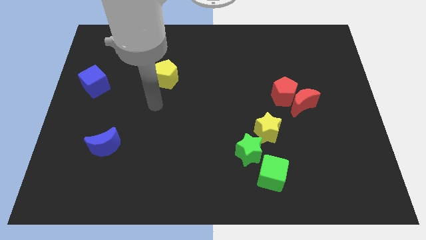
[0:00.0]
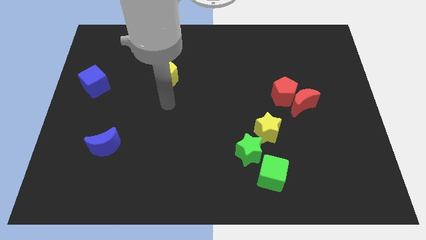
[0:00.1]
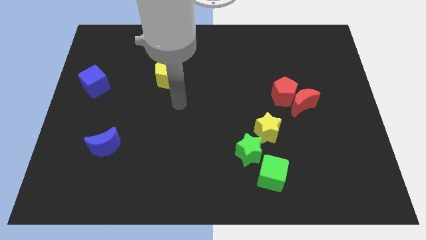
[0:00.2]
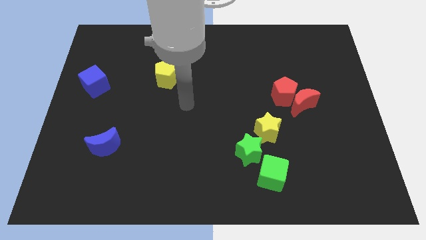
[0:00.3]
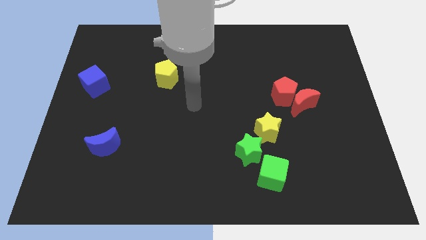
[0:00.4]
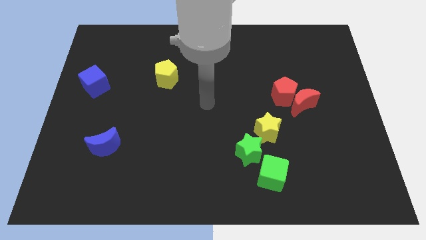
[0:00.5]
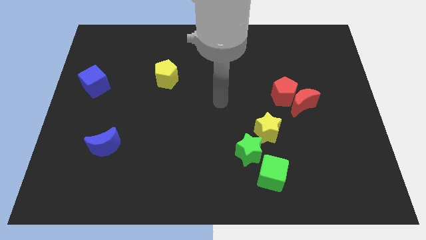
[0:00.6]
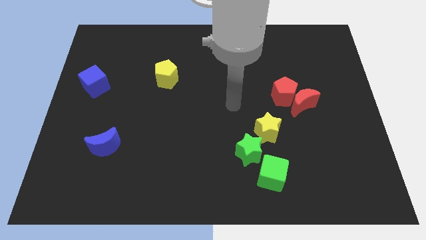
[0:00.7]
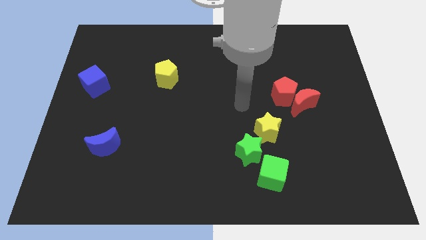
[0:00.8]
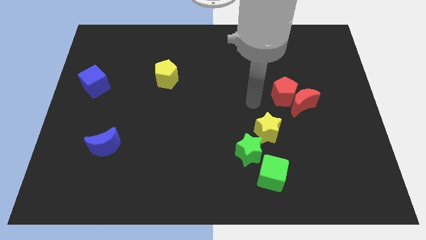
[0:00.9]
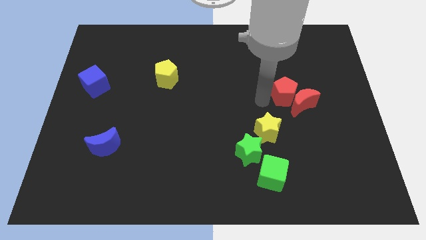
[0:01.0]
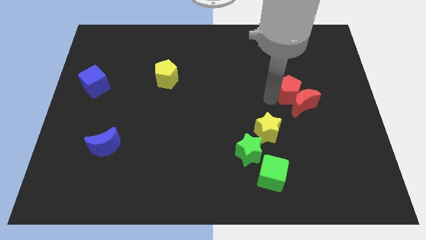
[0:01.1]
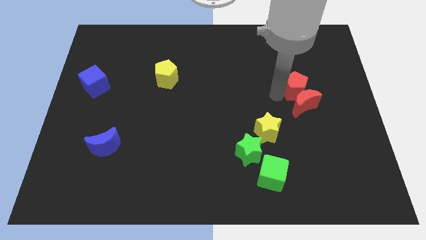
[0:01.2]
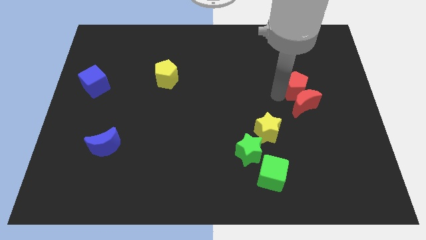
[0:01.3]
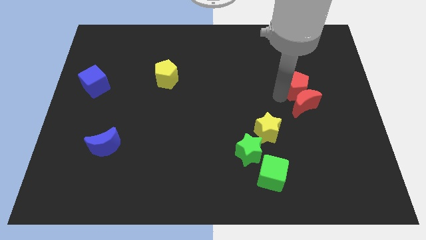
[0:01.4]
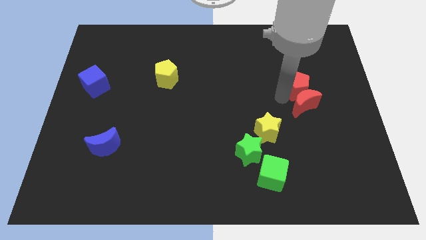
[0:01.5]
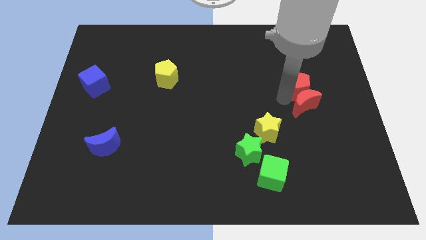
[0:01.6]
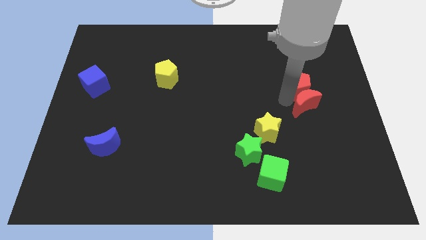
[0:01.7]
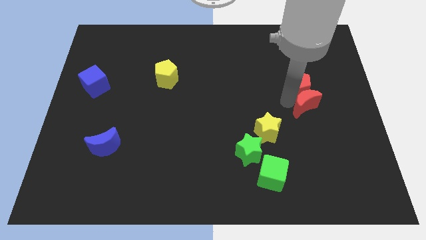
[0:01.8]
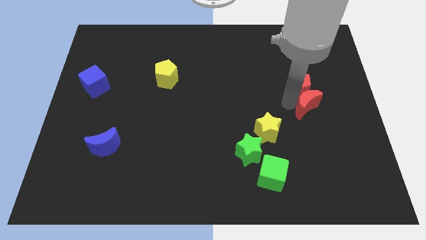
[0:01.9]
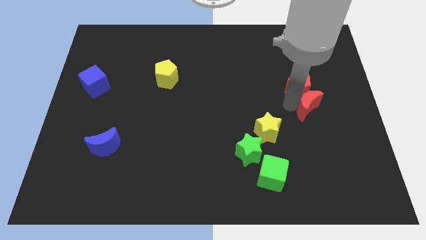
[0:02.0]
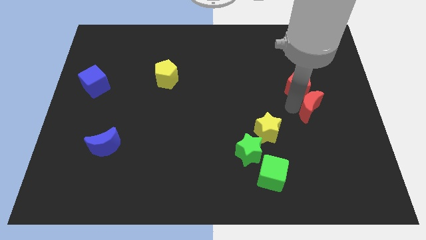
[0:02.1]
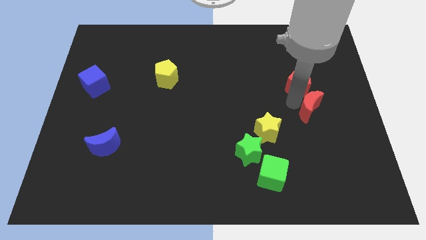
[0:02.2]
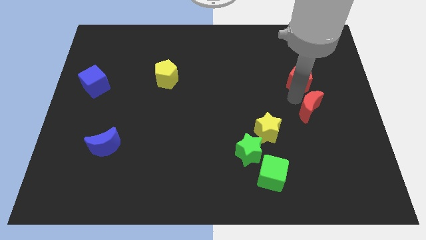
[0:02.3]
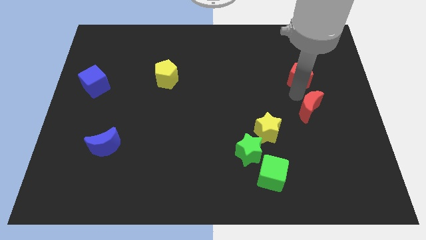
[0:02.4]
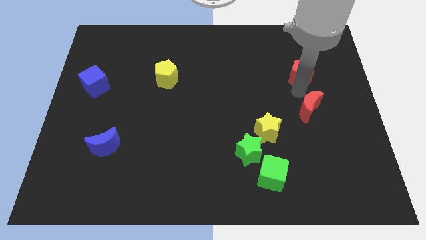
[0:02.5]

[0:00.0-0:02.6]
pull the red moon apart from the red pentagon

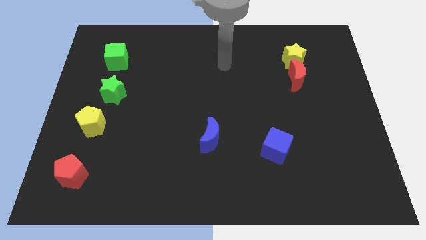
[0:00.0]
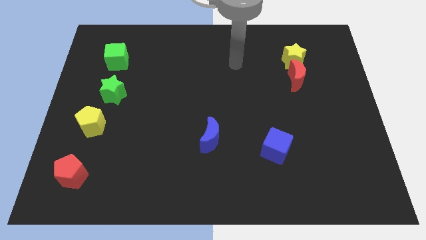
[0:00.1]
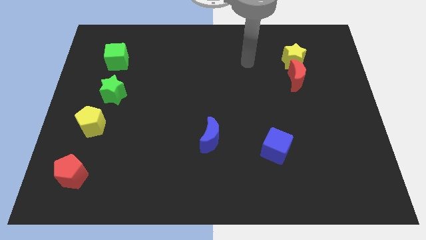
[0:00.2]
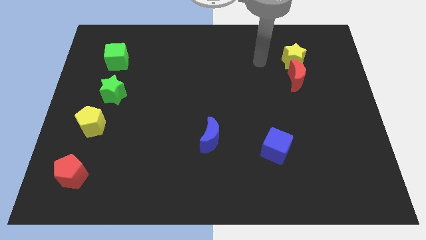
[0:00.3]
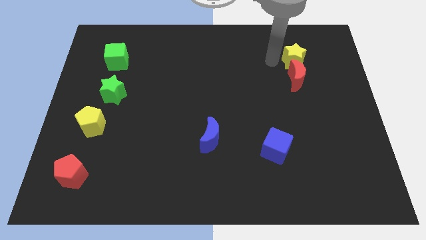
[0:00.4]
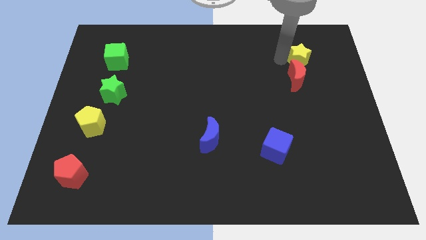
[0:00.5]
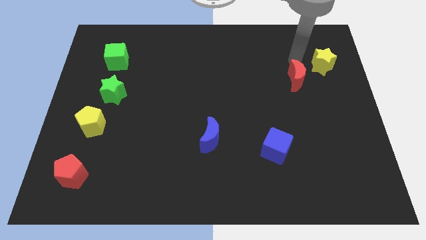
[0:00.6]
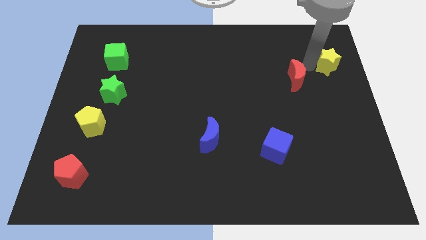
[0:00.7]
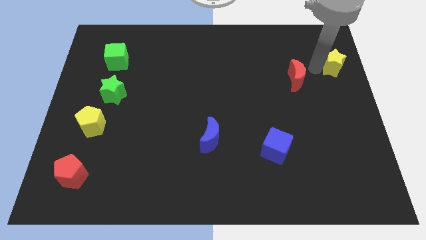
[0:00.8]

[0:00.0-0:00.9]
move the red moon away from the yellow star

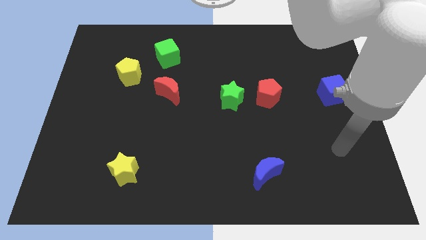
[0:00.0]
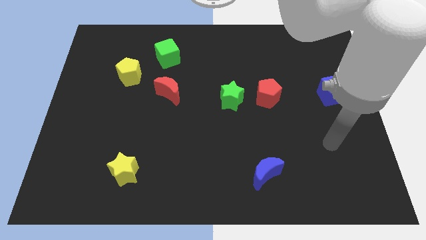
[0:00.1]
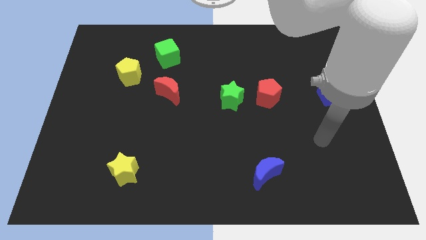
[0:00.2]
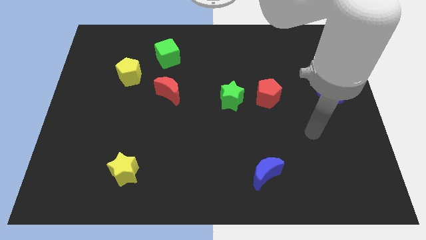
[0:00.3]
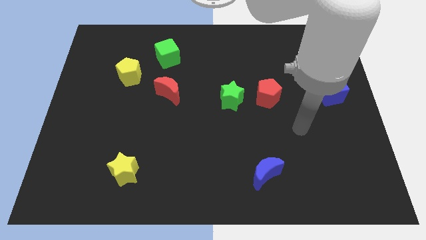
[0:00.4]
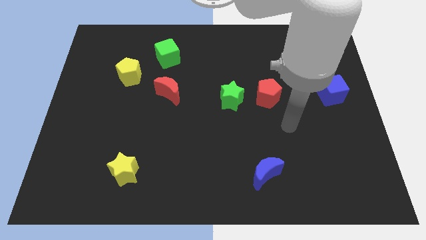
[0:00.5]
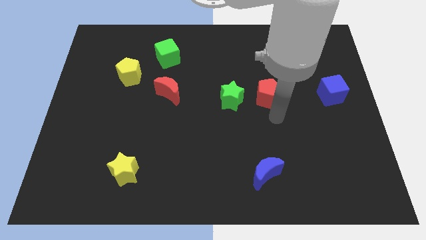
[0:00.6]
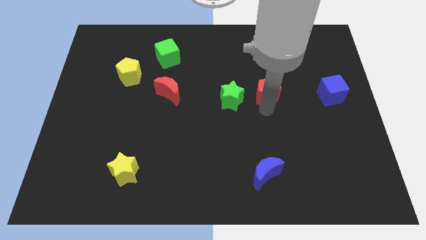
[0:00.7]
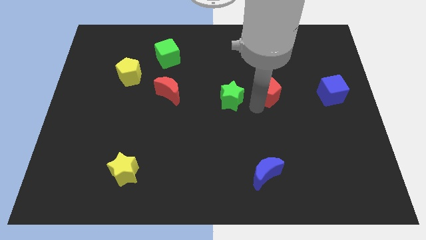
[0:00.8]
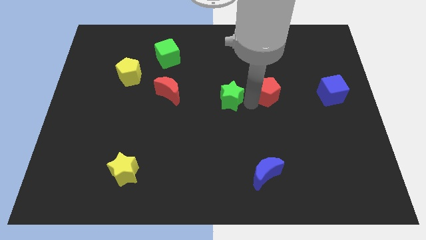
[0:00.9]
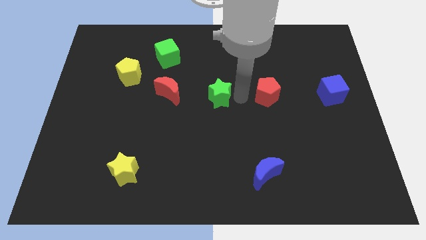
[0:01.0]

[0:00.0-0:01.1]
pull the red pentagon apart from the green star

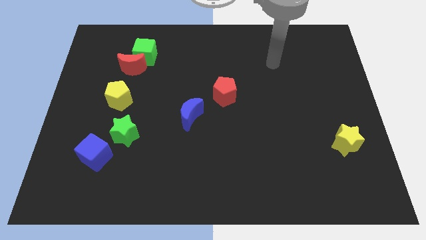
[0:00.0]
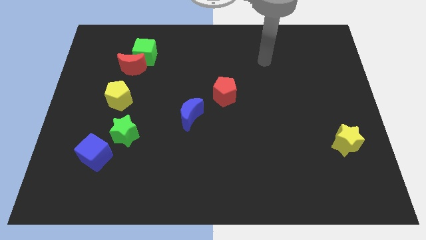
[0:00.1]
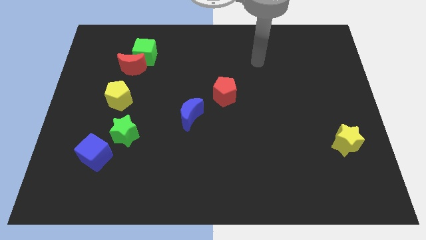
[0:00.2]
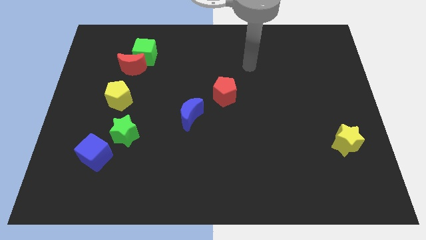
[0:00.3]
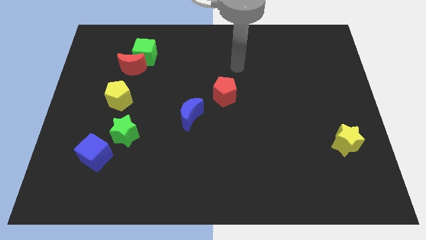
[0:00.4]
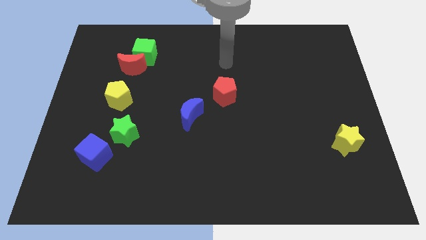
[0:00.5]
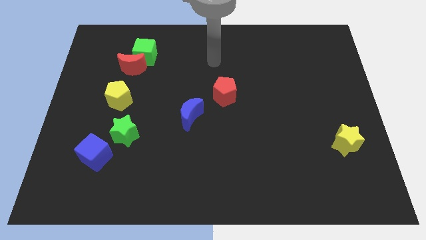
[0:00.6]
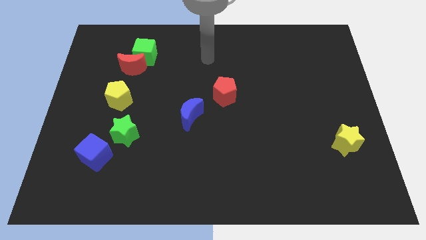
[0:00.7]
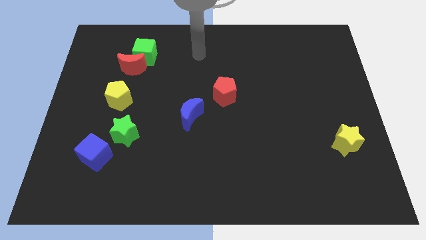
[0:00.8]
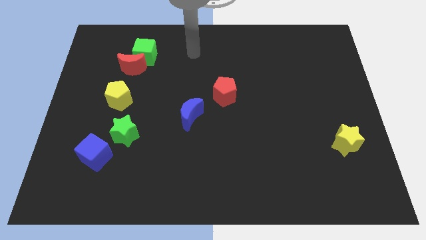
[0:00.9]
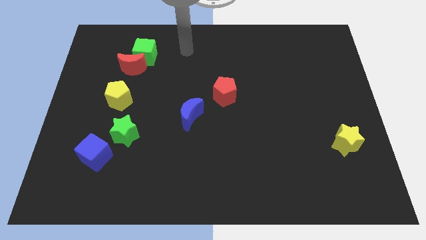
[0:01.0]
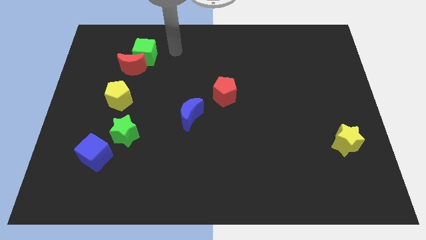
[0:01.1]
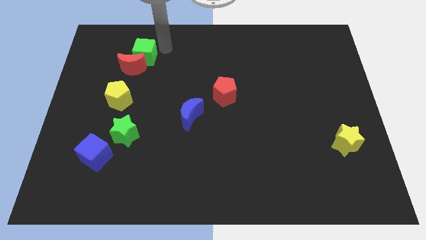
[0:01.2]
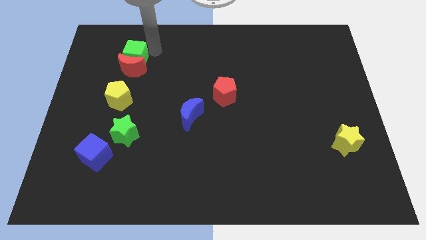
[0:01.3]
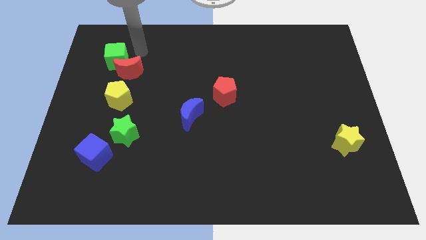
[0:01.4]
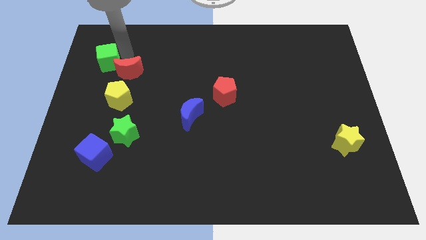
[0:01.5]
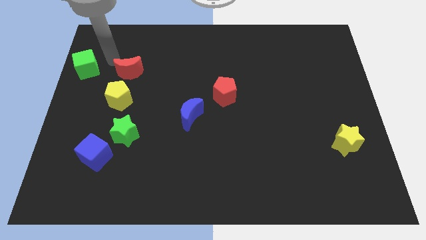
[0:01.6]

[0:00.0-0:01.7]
separate the red moon from the green cube

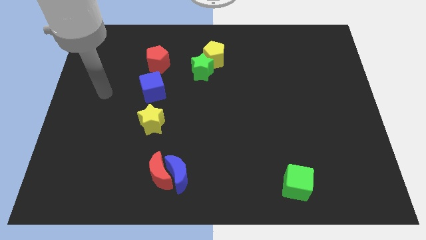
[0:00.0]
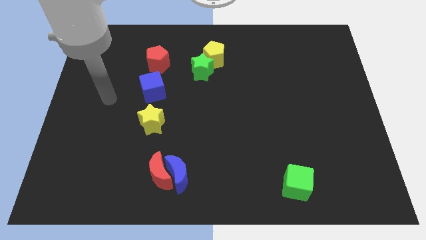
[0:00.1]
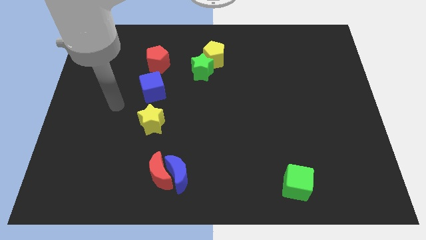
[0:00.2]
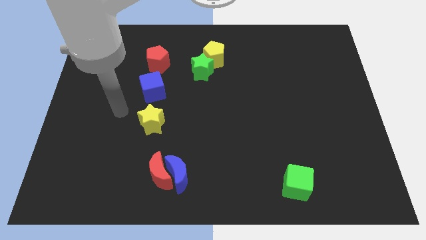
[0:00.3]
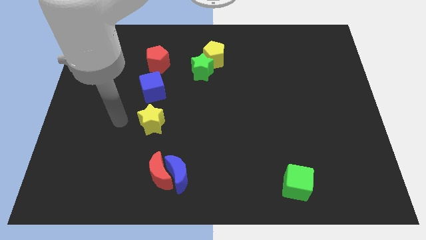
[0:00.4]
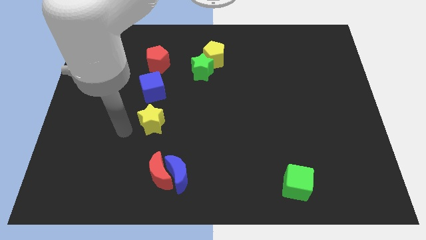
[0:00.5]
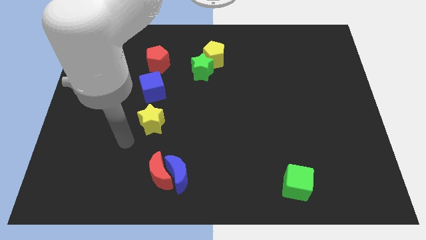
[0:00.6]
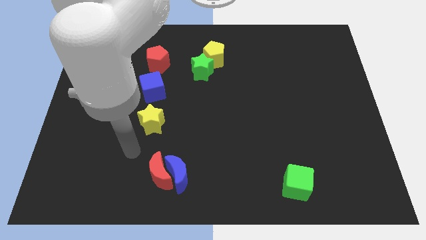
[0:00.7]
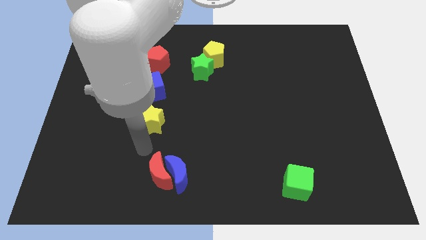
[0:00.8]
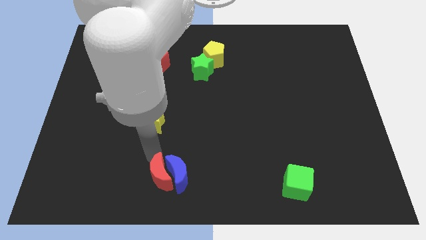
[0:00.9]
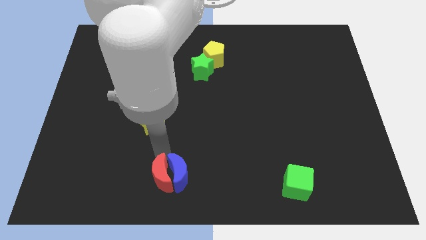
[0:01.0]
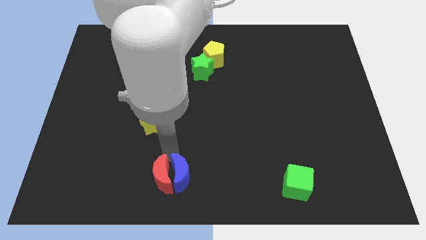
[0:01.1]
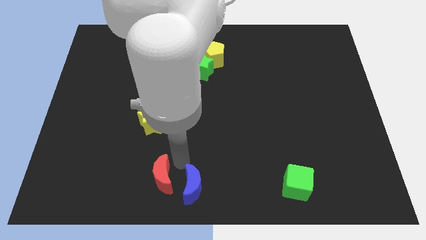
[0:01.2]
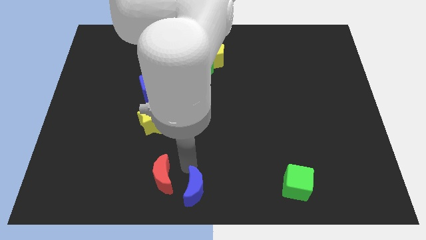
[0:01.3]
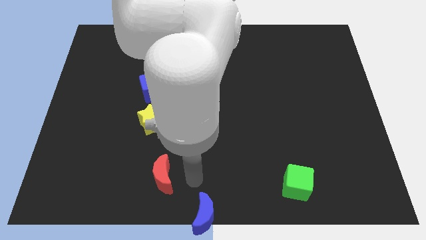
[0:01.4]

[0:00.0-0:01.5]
pull the red moon apart from the blue moon

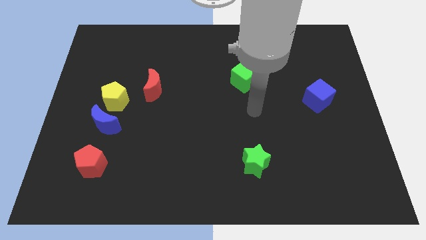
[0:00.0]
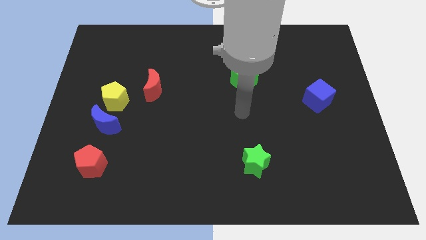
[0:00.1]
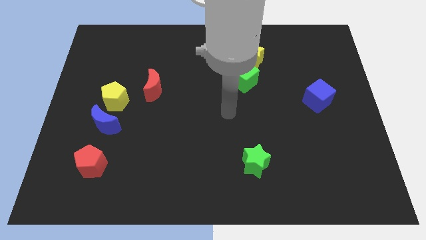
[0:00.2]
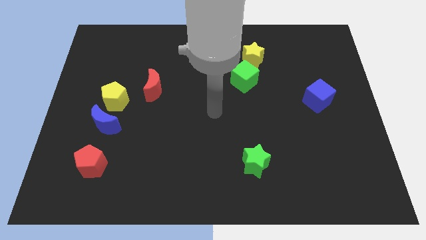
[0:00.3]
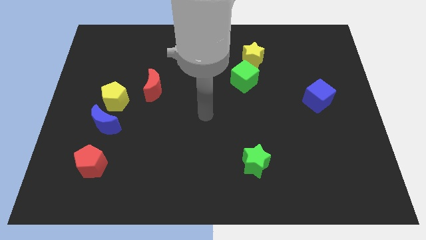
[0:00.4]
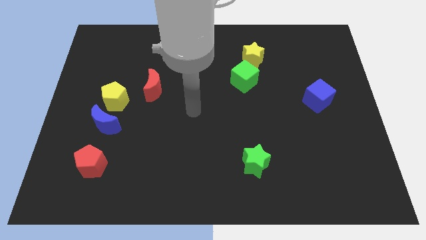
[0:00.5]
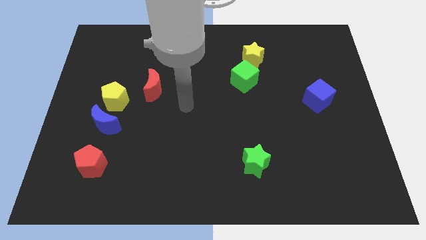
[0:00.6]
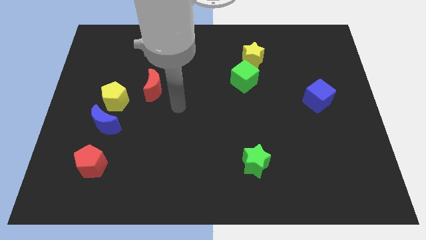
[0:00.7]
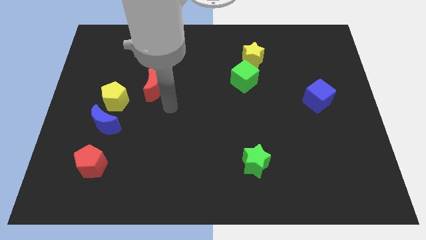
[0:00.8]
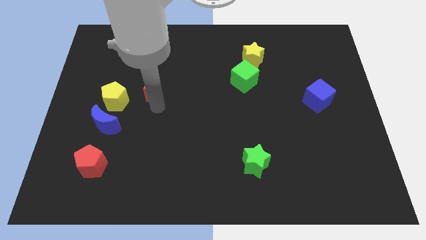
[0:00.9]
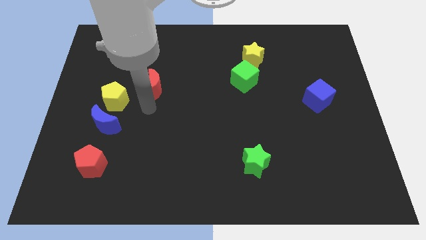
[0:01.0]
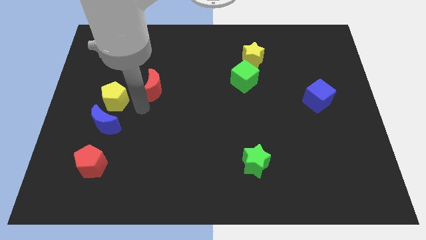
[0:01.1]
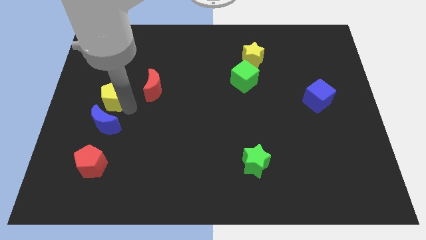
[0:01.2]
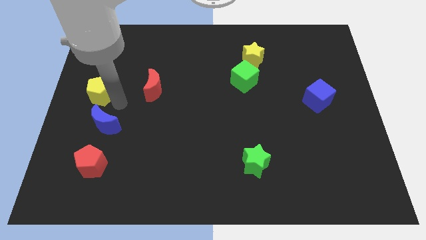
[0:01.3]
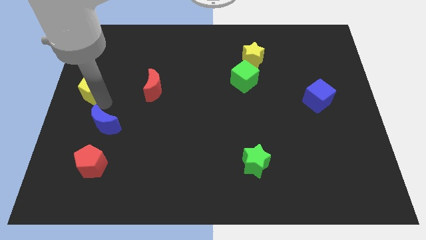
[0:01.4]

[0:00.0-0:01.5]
pull the blue moon apart from the yellow pentagon
